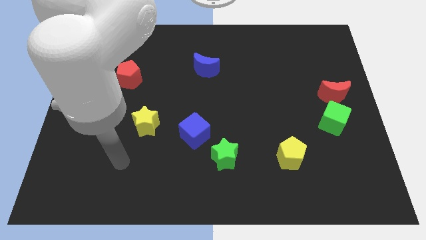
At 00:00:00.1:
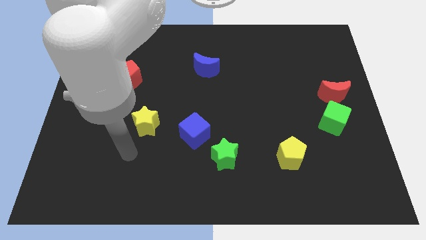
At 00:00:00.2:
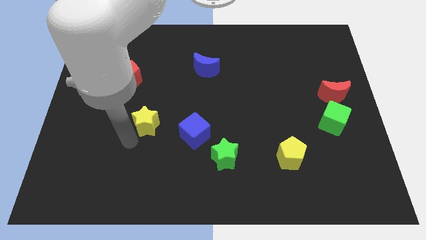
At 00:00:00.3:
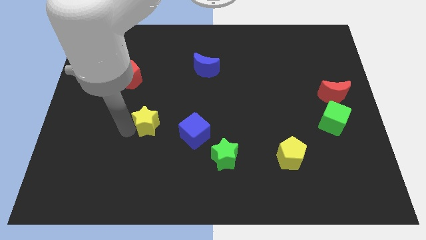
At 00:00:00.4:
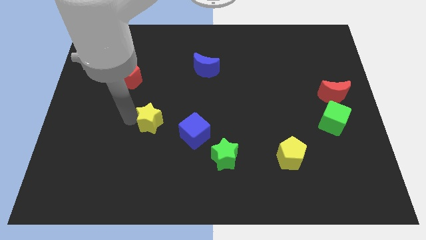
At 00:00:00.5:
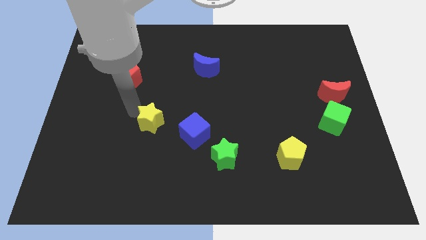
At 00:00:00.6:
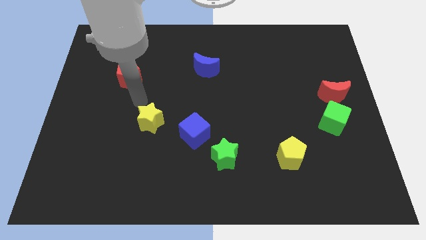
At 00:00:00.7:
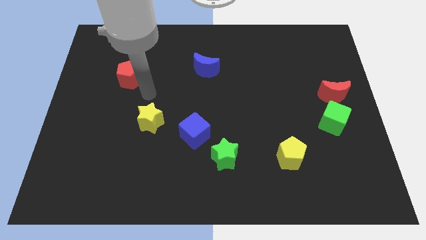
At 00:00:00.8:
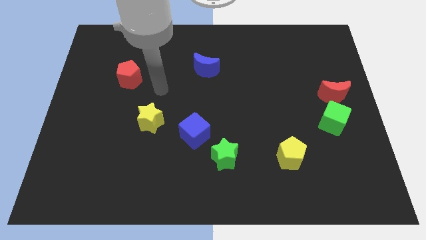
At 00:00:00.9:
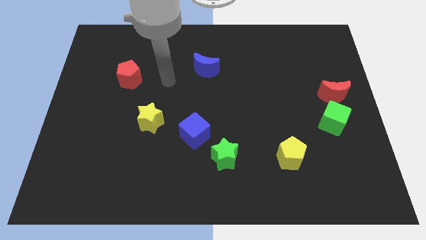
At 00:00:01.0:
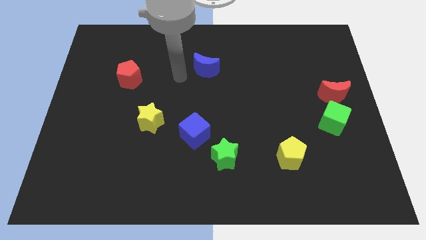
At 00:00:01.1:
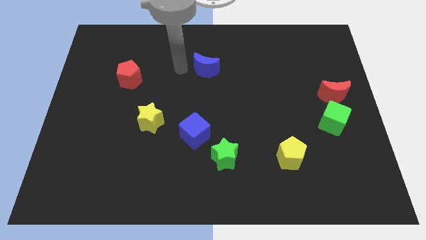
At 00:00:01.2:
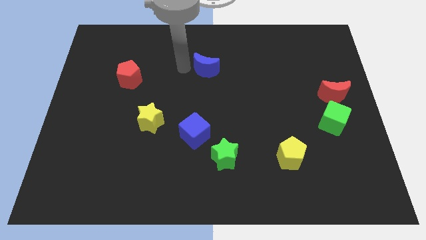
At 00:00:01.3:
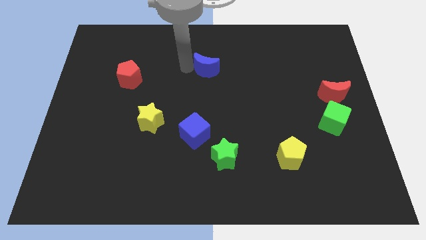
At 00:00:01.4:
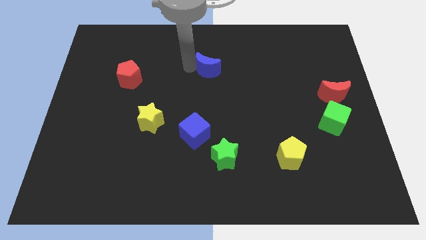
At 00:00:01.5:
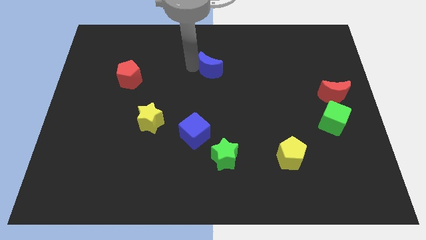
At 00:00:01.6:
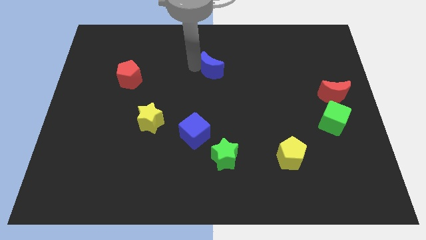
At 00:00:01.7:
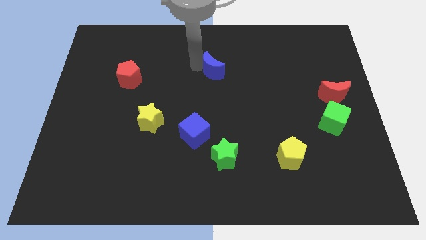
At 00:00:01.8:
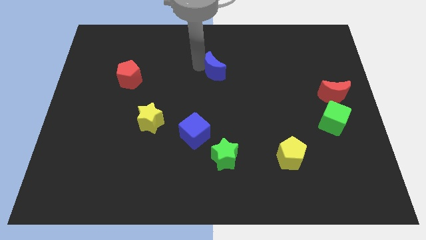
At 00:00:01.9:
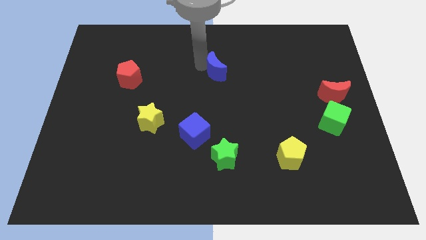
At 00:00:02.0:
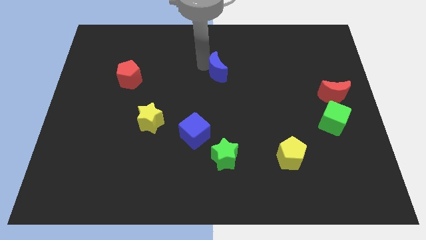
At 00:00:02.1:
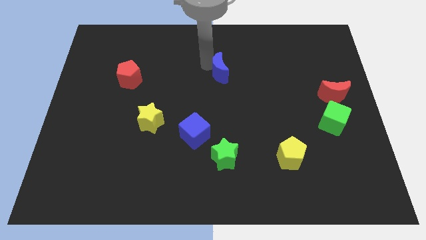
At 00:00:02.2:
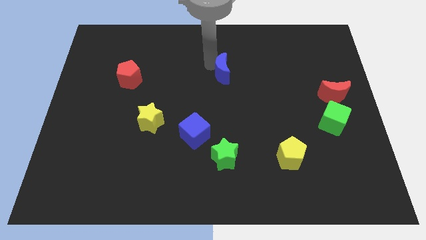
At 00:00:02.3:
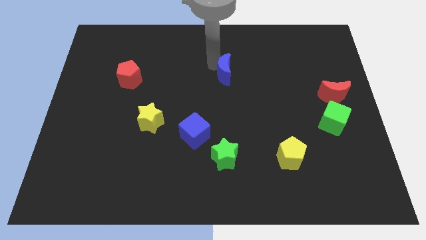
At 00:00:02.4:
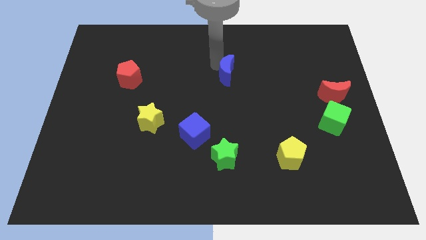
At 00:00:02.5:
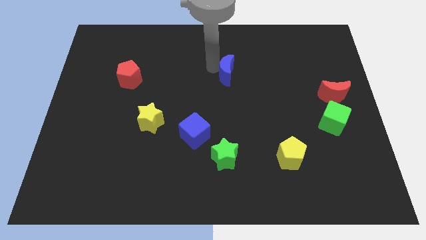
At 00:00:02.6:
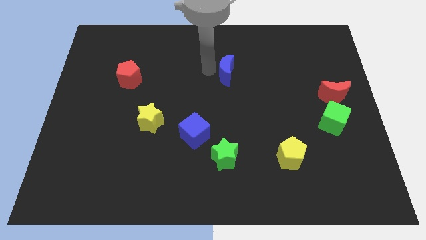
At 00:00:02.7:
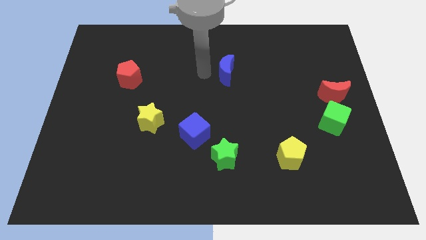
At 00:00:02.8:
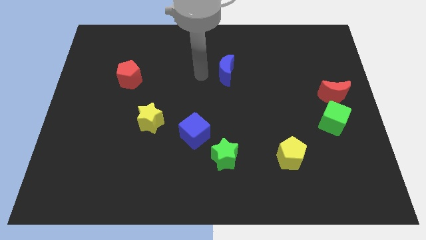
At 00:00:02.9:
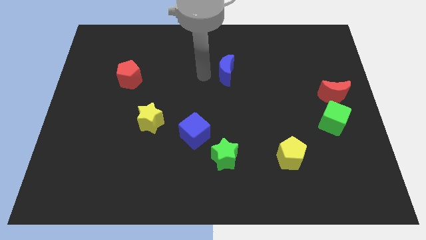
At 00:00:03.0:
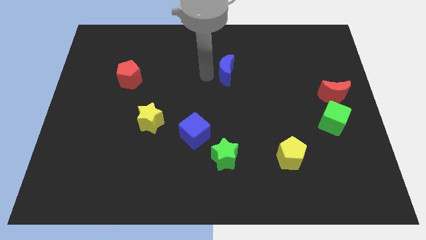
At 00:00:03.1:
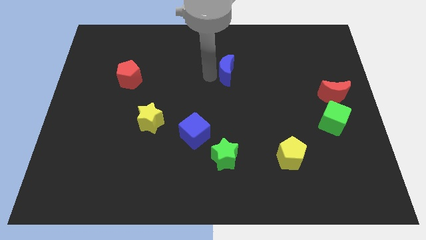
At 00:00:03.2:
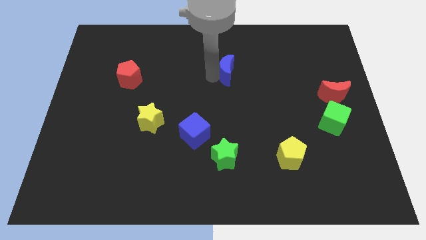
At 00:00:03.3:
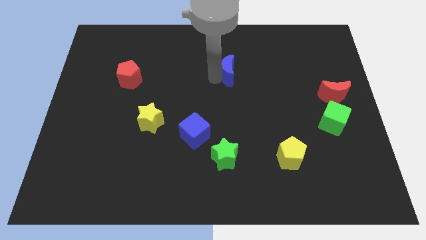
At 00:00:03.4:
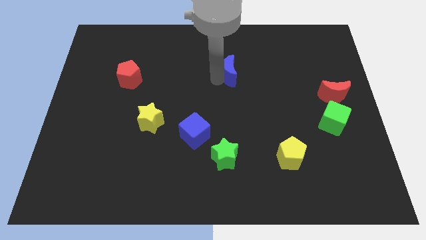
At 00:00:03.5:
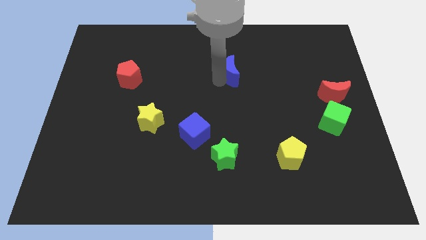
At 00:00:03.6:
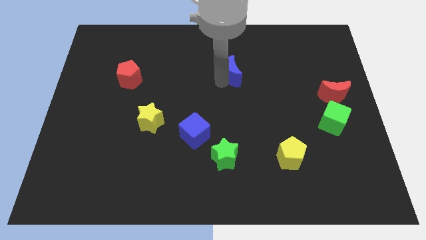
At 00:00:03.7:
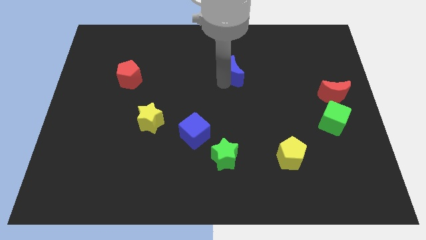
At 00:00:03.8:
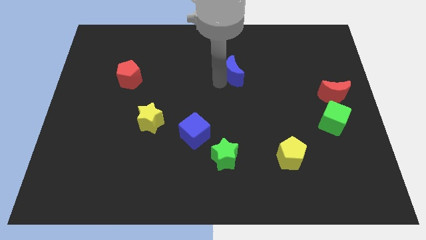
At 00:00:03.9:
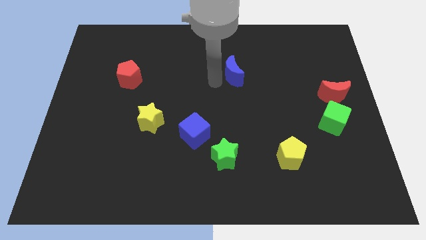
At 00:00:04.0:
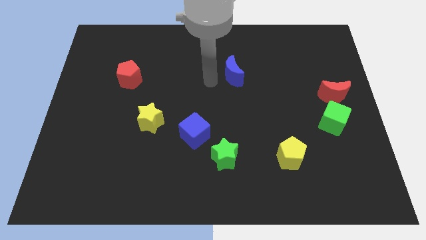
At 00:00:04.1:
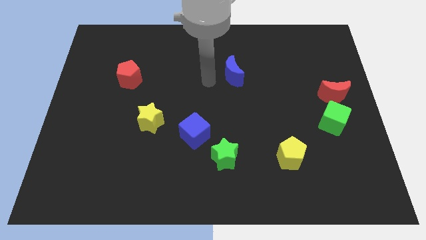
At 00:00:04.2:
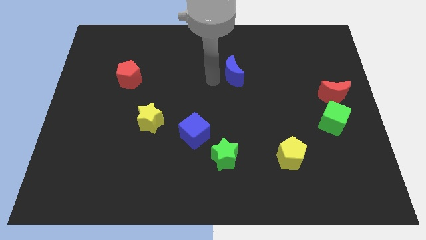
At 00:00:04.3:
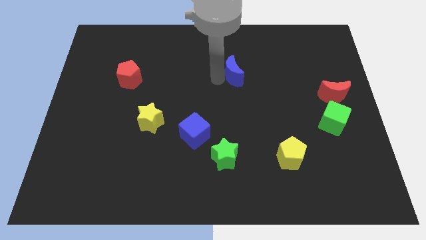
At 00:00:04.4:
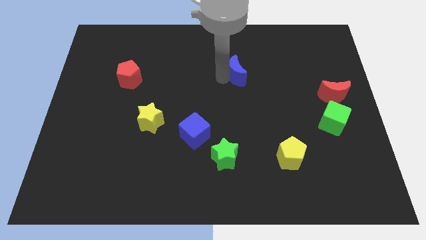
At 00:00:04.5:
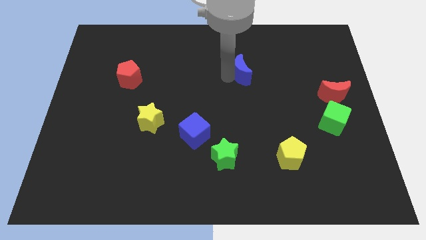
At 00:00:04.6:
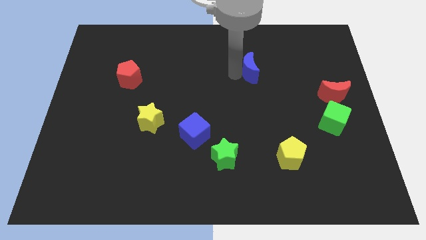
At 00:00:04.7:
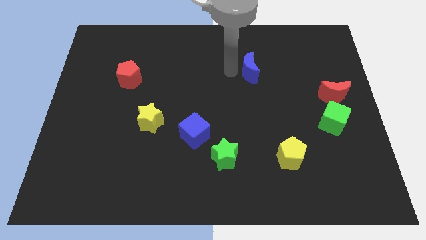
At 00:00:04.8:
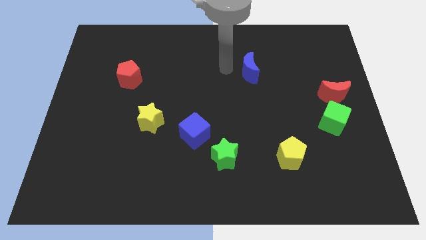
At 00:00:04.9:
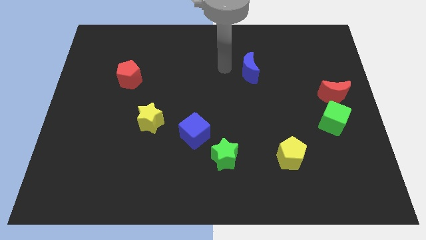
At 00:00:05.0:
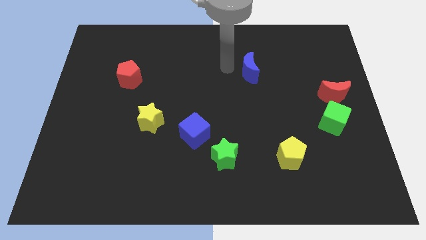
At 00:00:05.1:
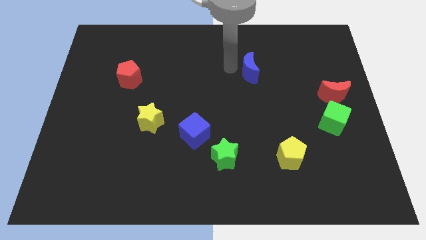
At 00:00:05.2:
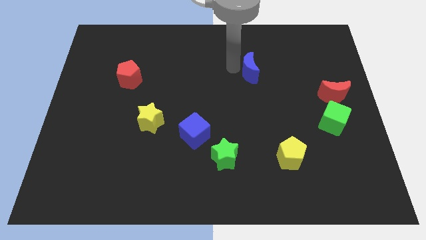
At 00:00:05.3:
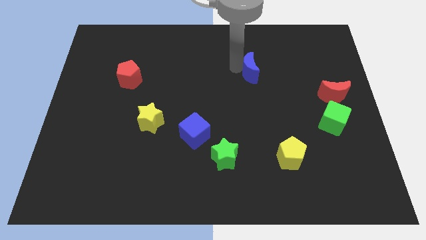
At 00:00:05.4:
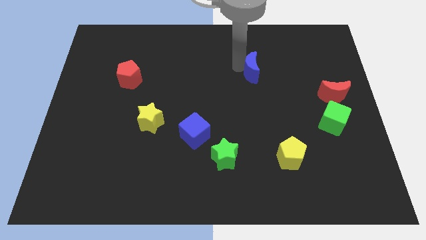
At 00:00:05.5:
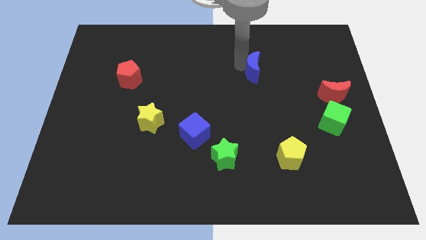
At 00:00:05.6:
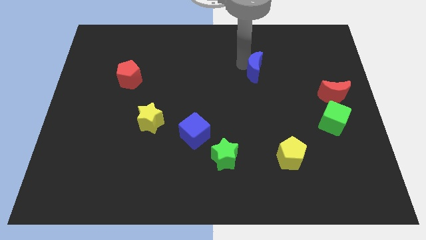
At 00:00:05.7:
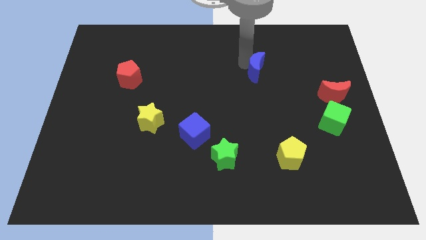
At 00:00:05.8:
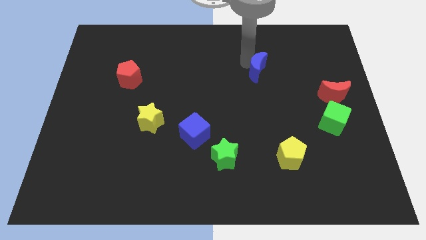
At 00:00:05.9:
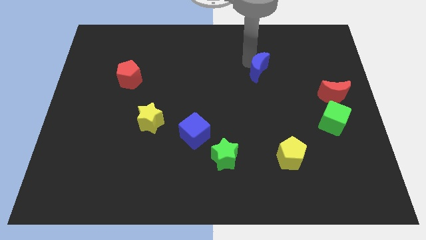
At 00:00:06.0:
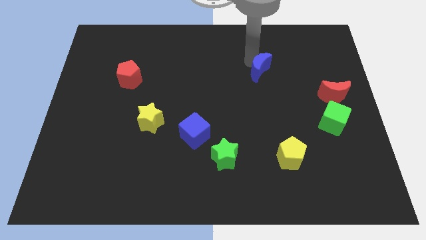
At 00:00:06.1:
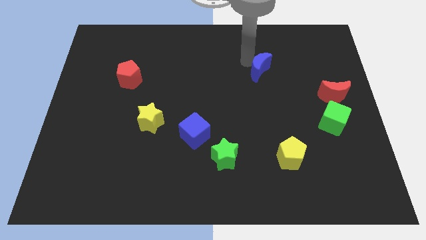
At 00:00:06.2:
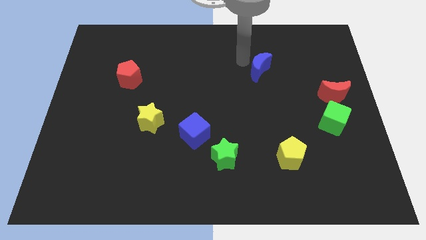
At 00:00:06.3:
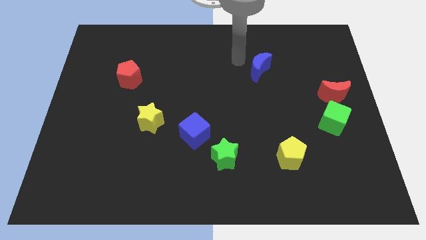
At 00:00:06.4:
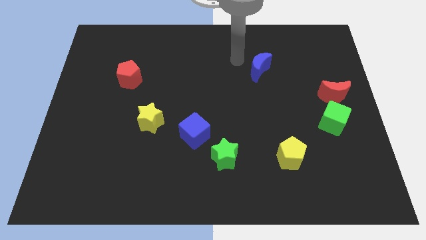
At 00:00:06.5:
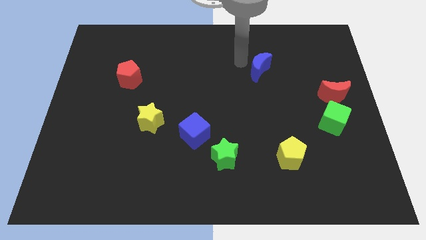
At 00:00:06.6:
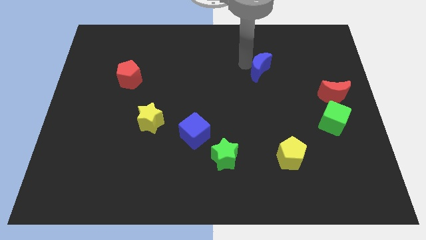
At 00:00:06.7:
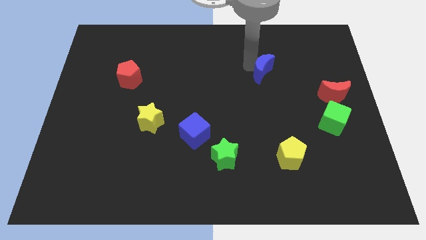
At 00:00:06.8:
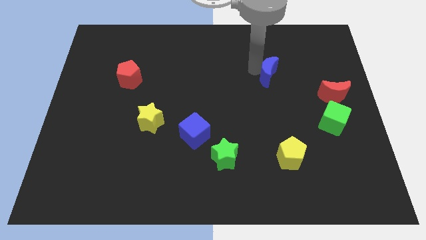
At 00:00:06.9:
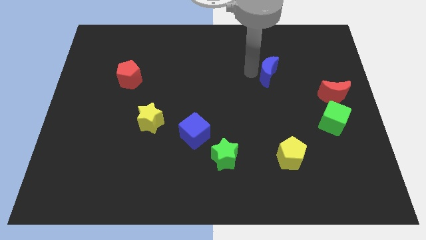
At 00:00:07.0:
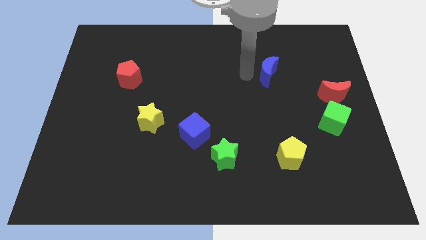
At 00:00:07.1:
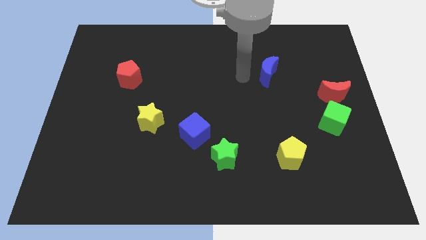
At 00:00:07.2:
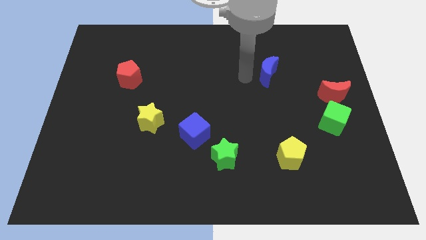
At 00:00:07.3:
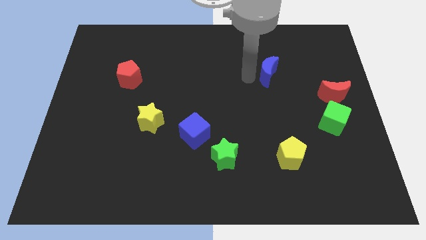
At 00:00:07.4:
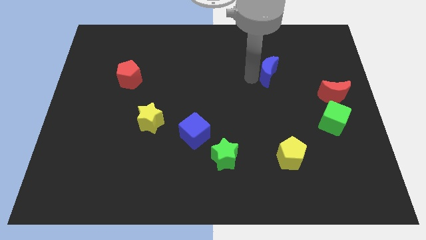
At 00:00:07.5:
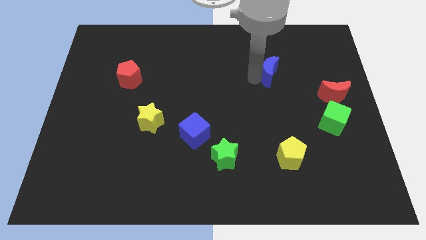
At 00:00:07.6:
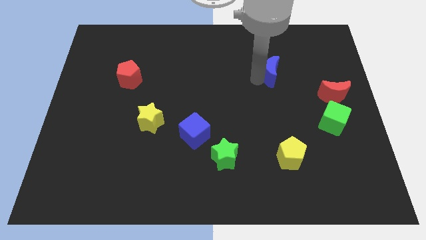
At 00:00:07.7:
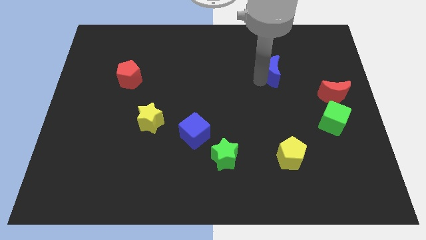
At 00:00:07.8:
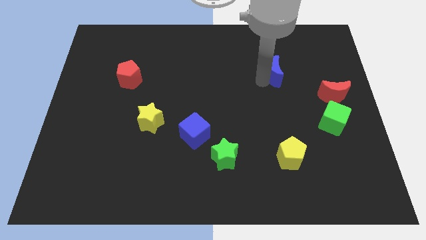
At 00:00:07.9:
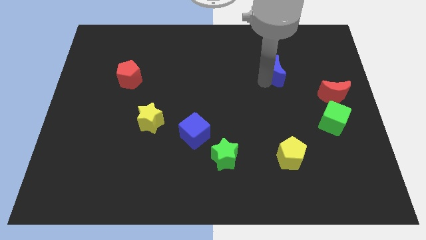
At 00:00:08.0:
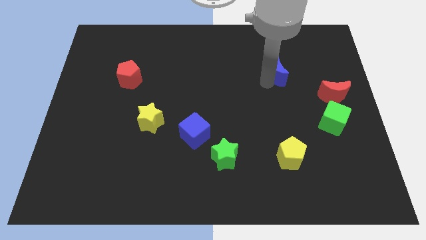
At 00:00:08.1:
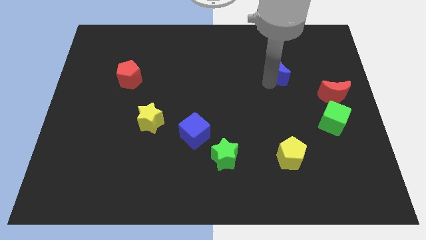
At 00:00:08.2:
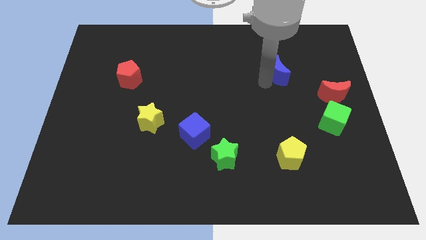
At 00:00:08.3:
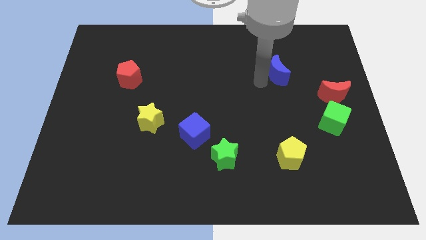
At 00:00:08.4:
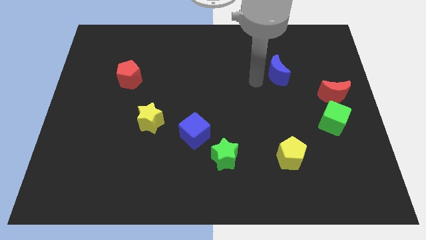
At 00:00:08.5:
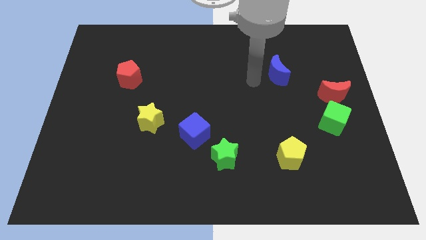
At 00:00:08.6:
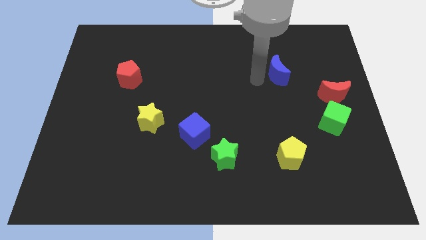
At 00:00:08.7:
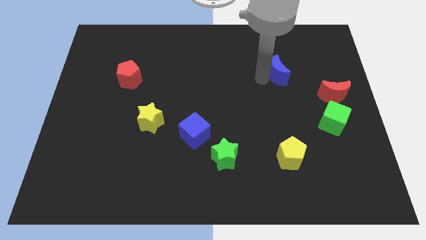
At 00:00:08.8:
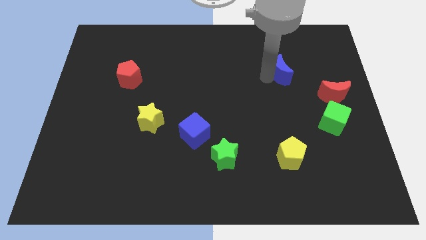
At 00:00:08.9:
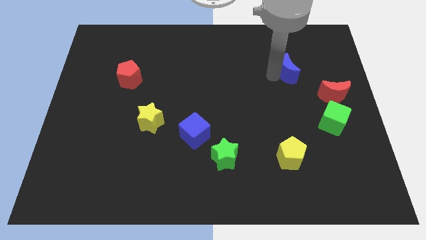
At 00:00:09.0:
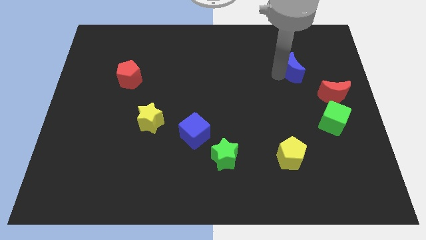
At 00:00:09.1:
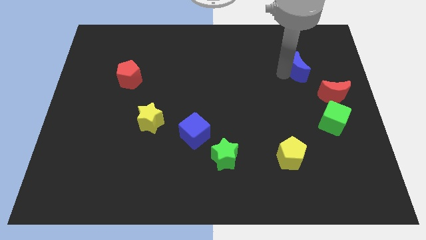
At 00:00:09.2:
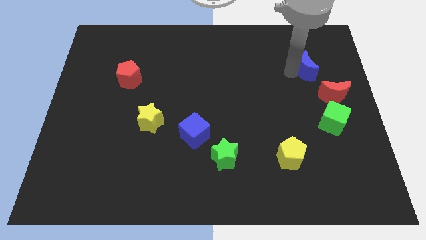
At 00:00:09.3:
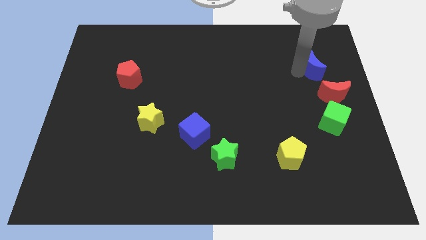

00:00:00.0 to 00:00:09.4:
put the blue moon to the top side of the red moon
